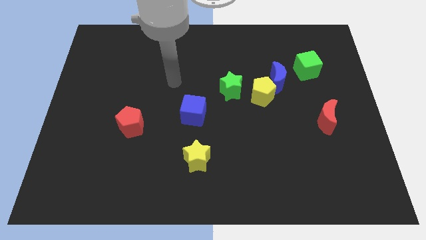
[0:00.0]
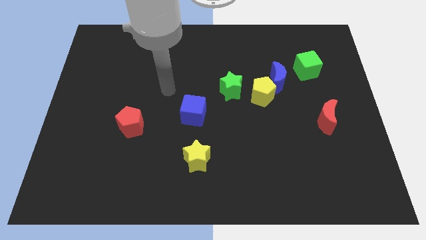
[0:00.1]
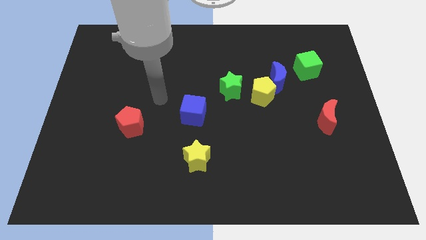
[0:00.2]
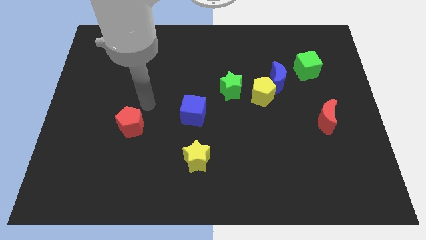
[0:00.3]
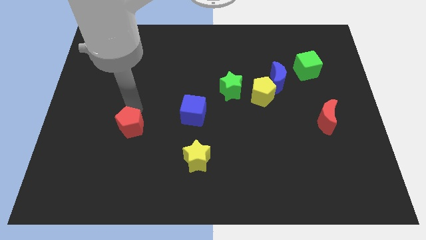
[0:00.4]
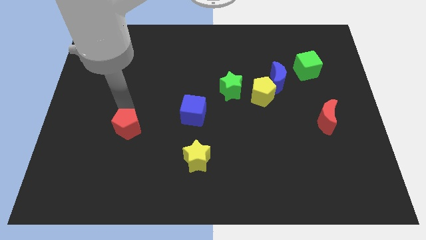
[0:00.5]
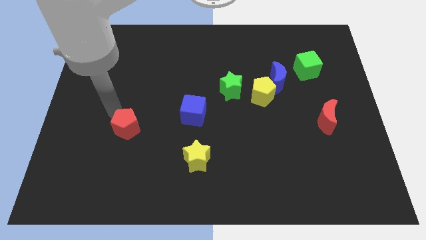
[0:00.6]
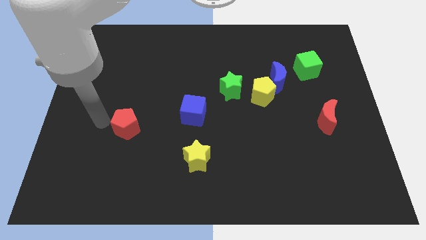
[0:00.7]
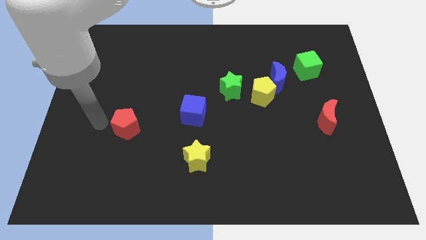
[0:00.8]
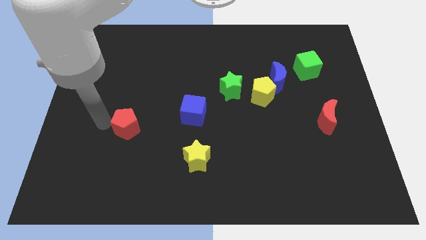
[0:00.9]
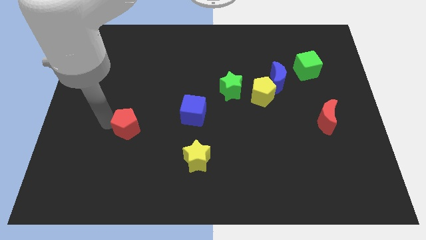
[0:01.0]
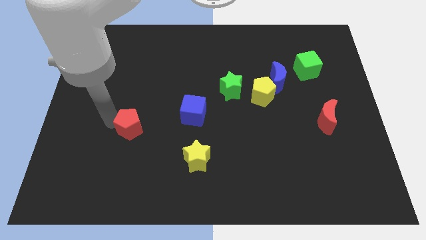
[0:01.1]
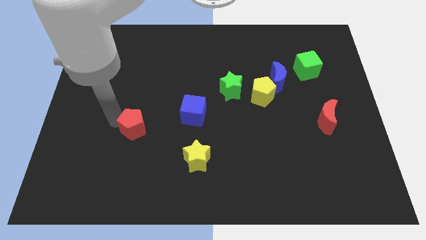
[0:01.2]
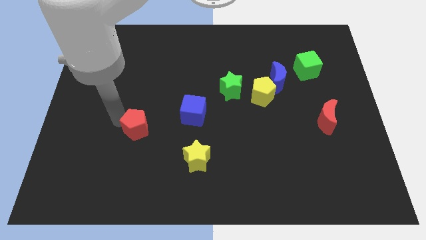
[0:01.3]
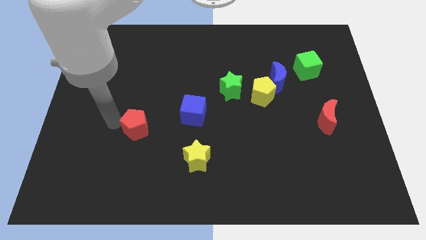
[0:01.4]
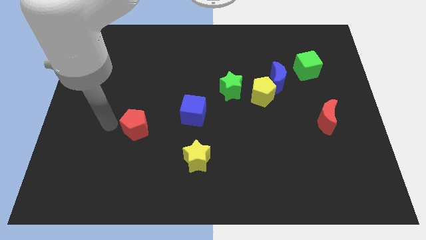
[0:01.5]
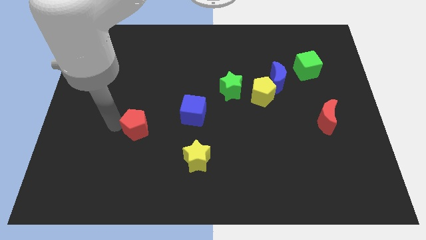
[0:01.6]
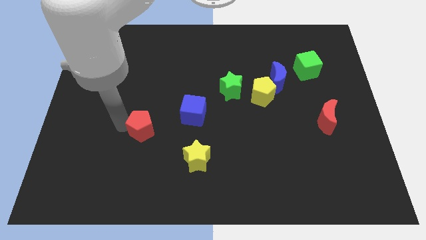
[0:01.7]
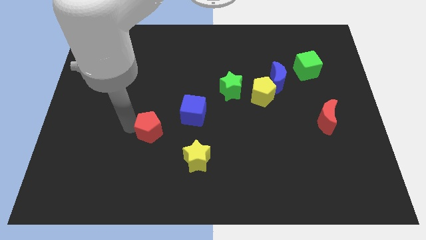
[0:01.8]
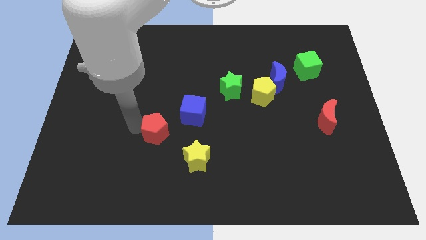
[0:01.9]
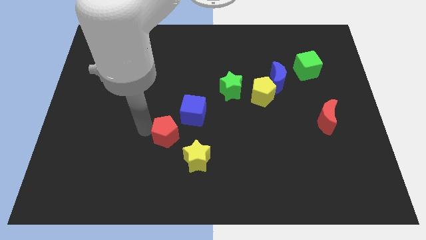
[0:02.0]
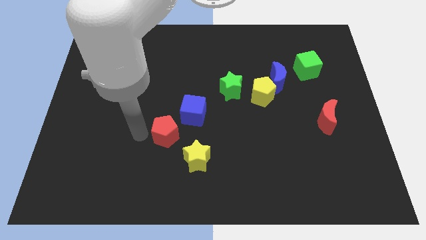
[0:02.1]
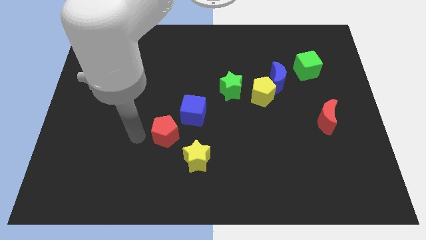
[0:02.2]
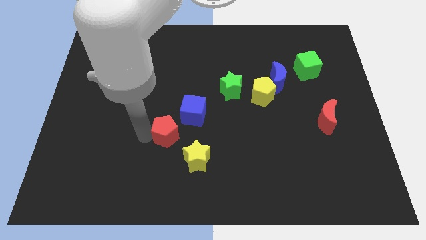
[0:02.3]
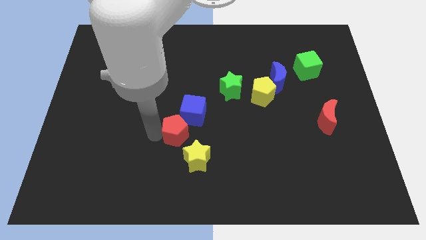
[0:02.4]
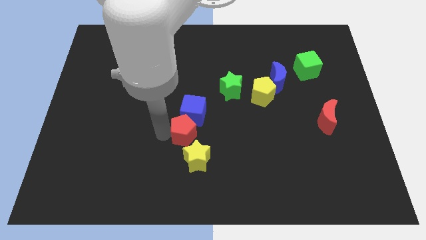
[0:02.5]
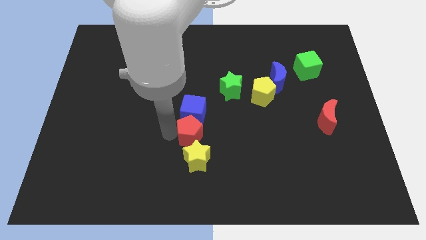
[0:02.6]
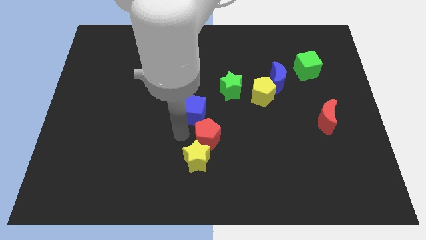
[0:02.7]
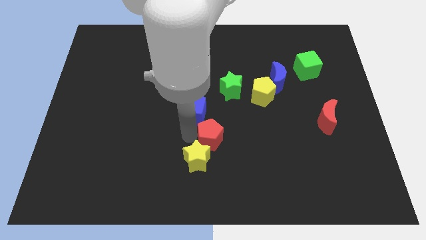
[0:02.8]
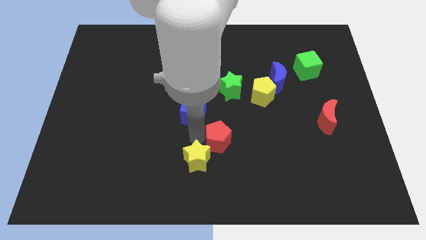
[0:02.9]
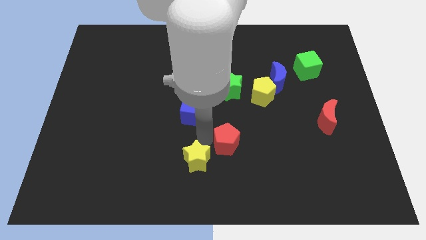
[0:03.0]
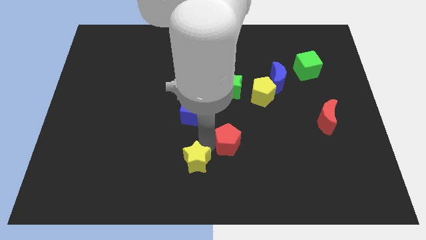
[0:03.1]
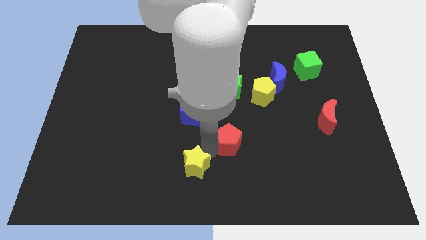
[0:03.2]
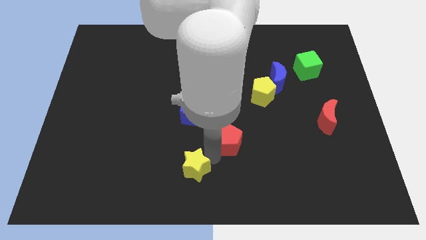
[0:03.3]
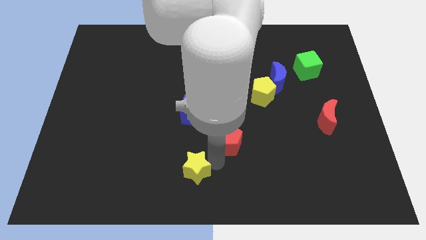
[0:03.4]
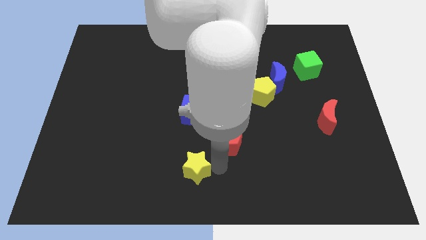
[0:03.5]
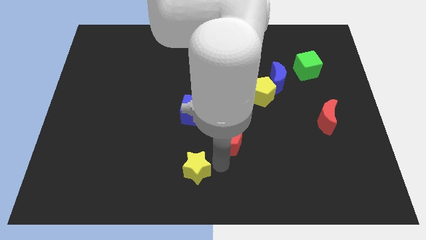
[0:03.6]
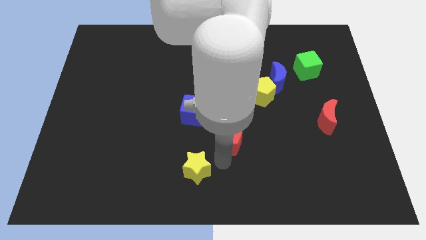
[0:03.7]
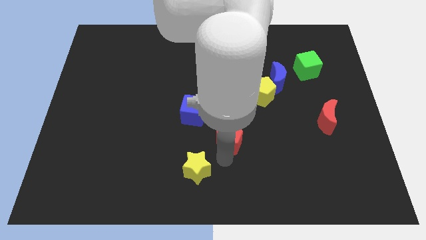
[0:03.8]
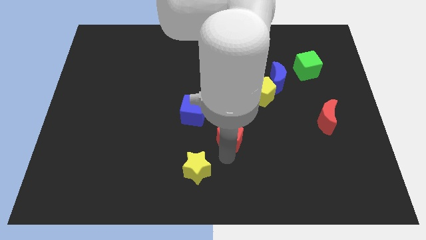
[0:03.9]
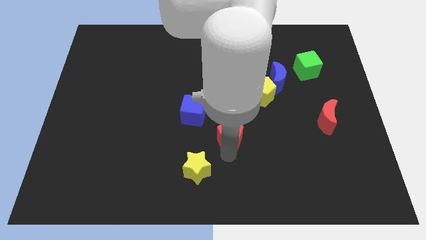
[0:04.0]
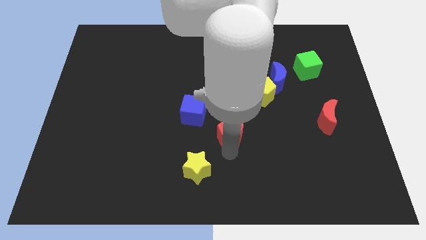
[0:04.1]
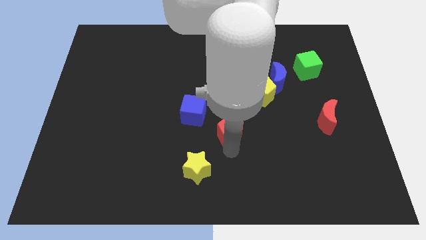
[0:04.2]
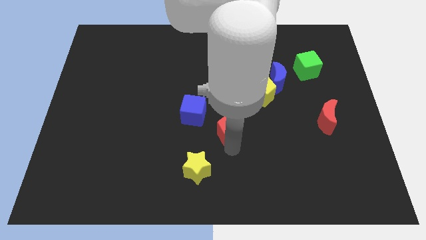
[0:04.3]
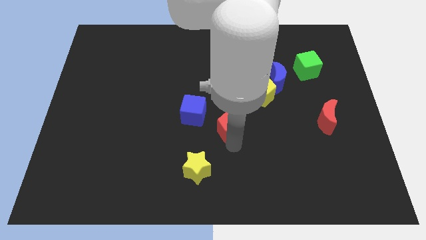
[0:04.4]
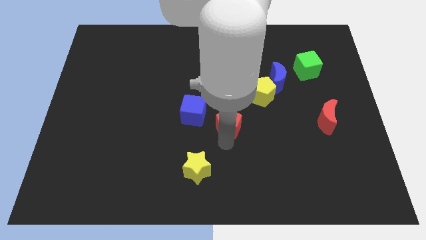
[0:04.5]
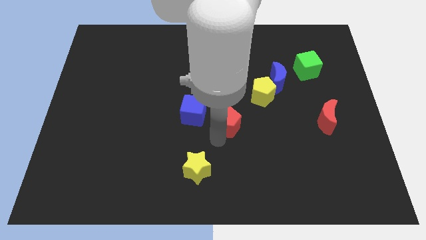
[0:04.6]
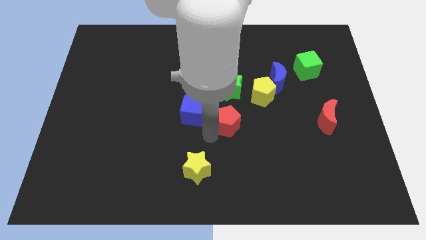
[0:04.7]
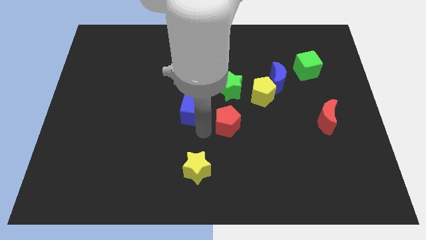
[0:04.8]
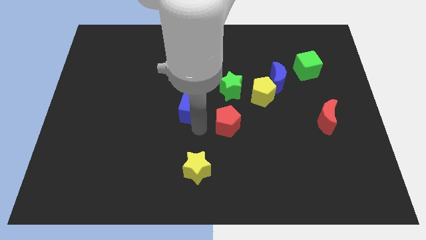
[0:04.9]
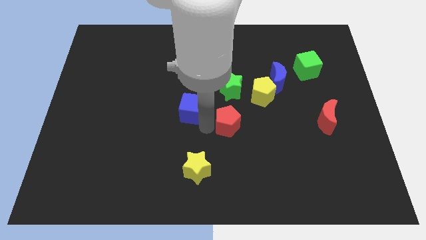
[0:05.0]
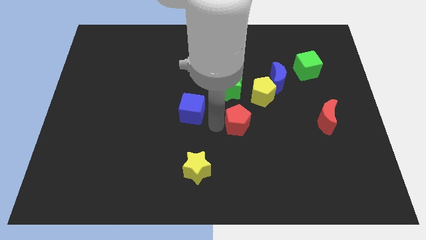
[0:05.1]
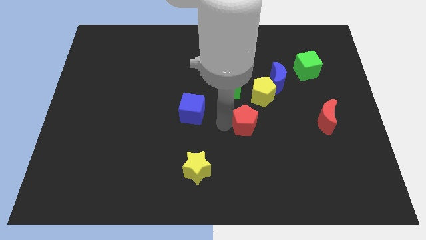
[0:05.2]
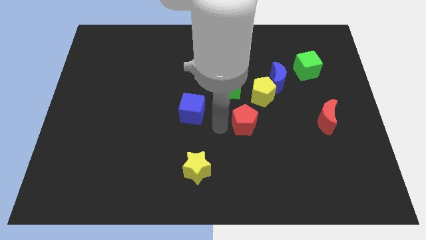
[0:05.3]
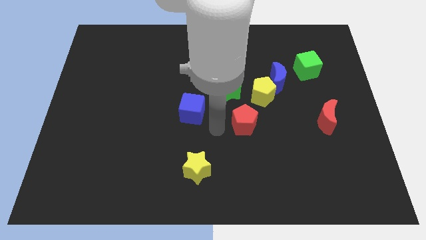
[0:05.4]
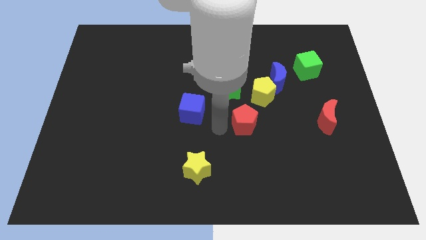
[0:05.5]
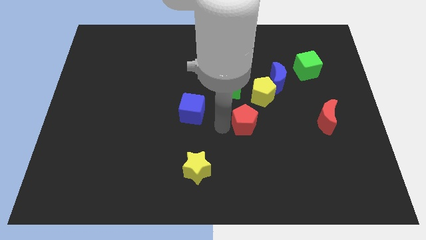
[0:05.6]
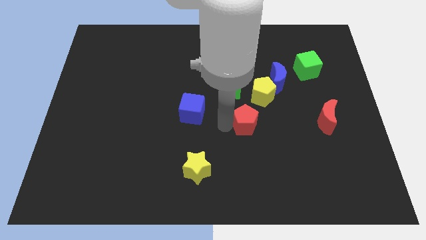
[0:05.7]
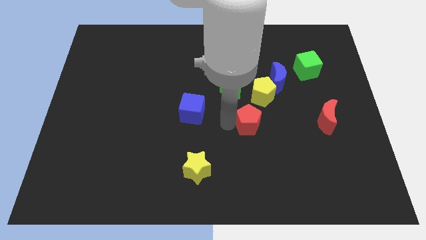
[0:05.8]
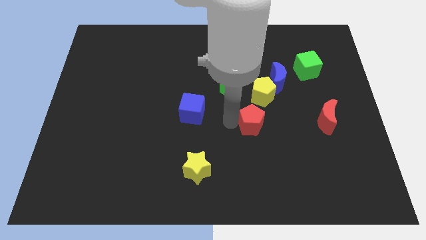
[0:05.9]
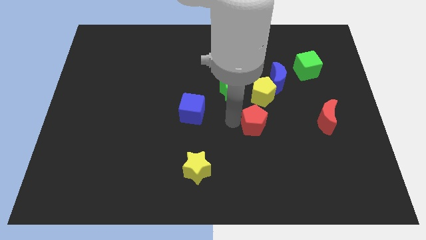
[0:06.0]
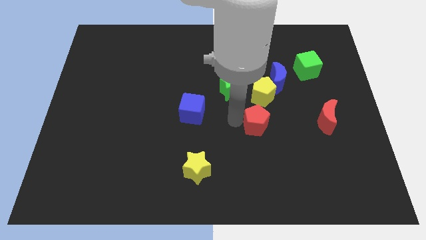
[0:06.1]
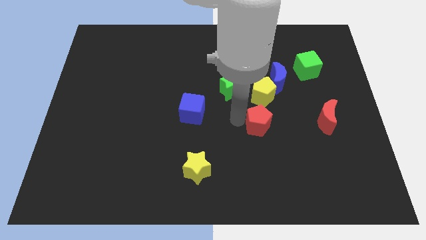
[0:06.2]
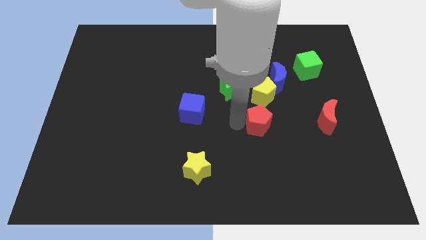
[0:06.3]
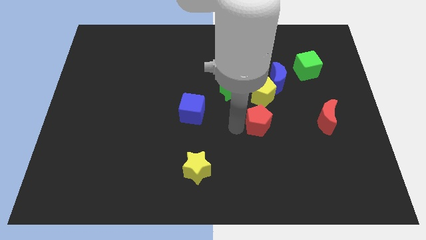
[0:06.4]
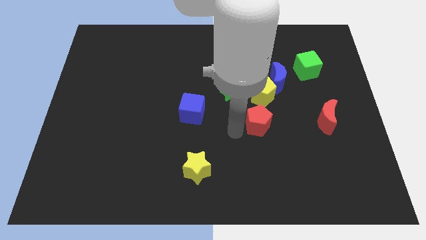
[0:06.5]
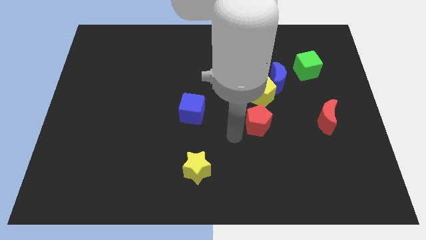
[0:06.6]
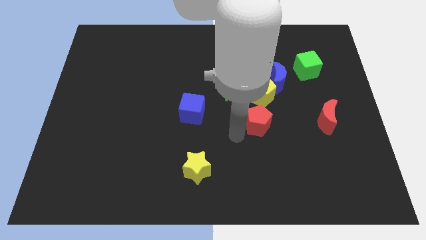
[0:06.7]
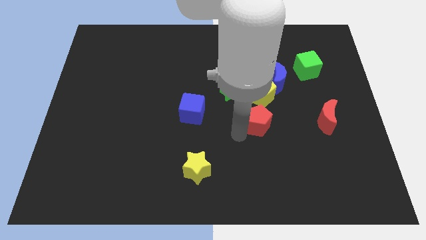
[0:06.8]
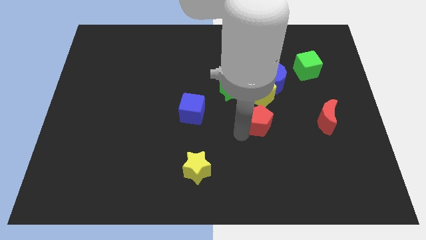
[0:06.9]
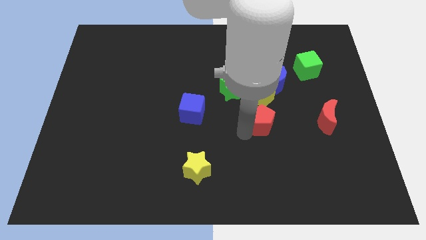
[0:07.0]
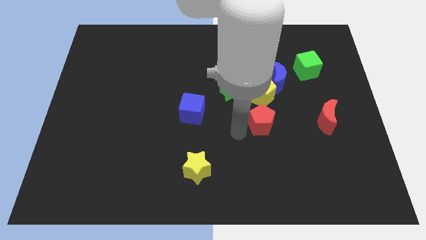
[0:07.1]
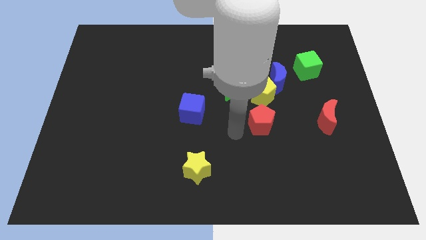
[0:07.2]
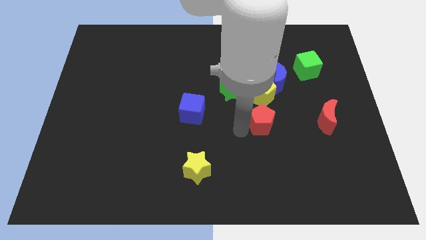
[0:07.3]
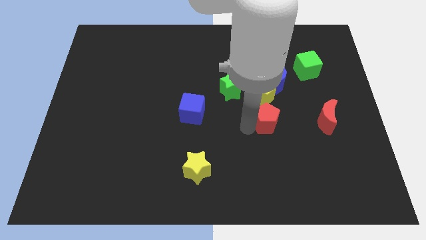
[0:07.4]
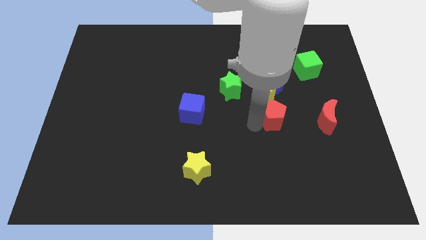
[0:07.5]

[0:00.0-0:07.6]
push the red pentagon diagonally down and to the right of the yellow pentagon
